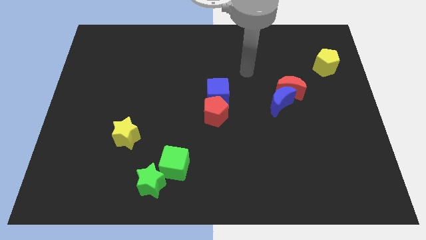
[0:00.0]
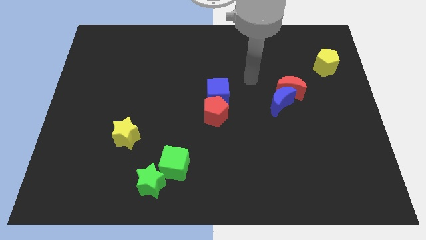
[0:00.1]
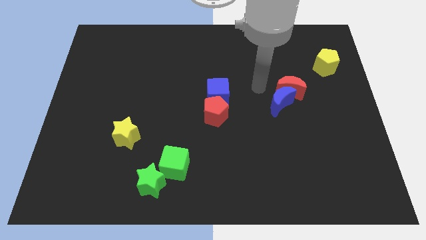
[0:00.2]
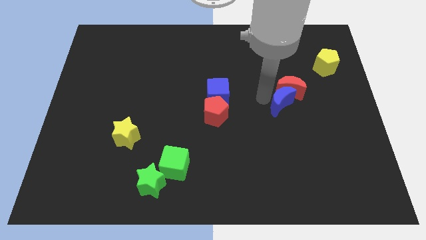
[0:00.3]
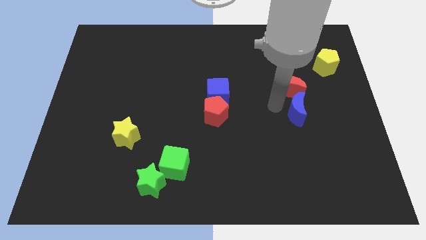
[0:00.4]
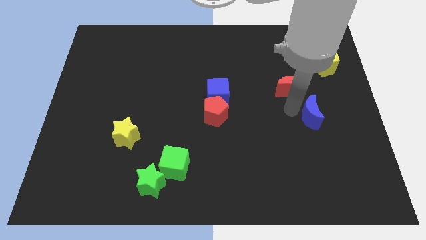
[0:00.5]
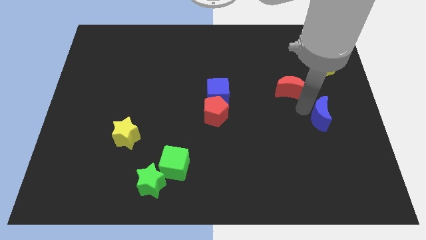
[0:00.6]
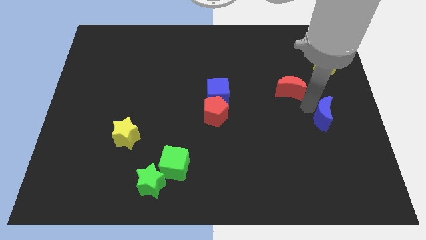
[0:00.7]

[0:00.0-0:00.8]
pull the red moon apart from the blue moon

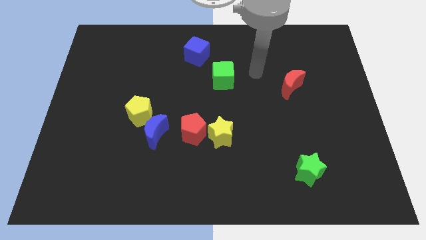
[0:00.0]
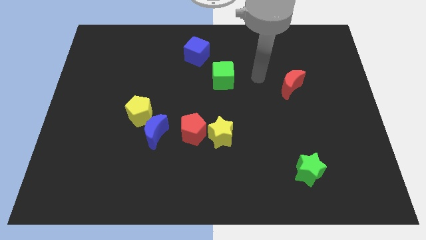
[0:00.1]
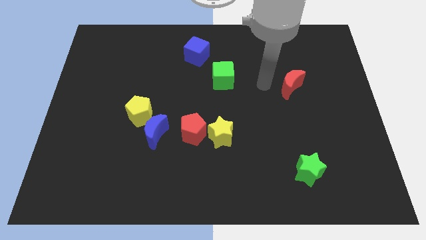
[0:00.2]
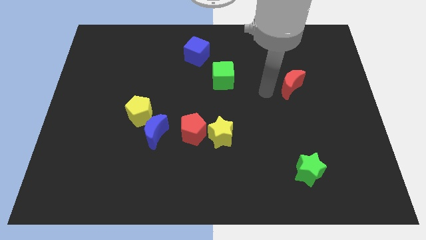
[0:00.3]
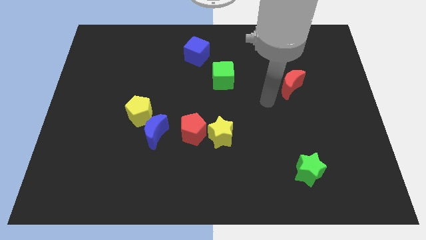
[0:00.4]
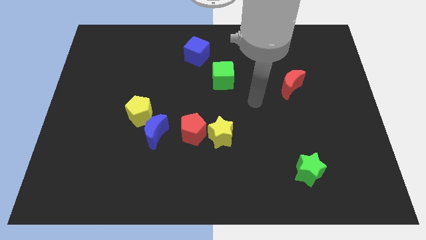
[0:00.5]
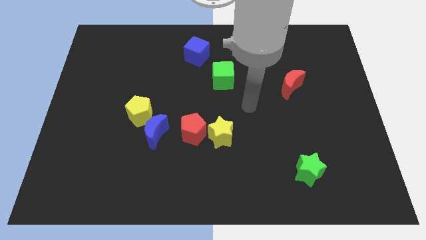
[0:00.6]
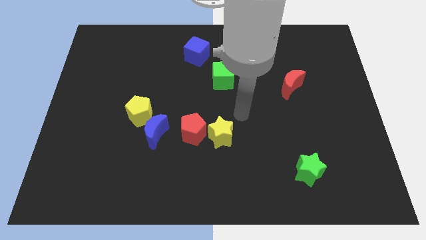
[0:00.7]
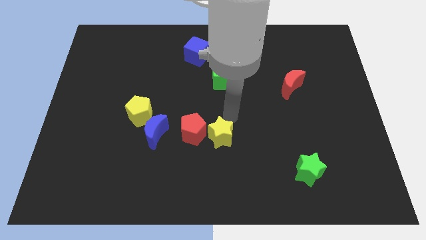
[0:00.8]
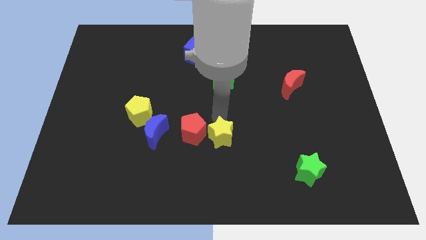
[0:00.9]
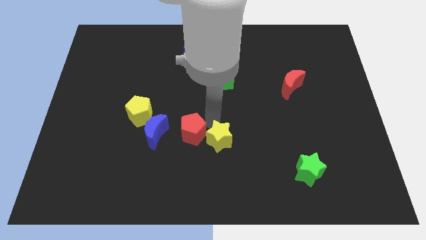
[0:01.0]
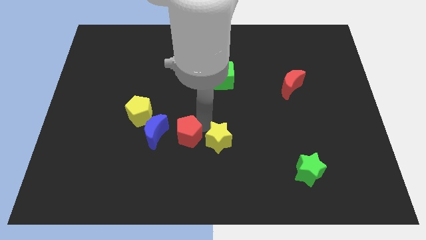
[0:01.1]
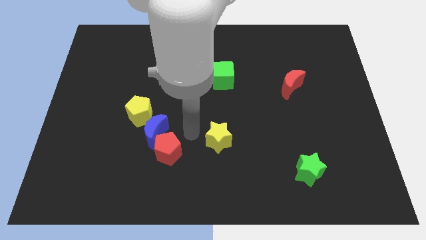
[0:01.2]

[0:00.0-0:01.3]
separate the yellow star from the red pentagon

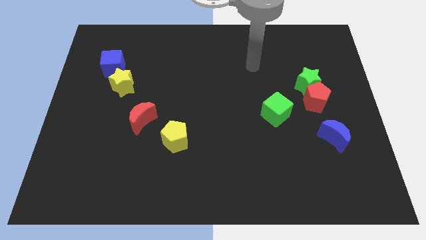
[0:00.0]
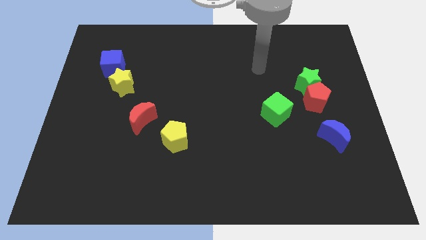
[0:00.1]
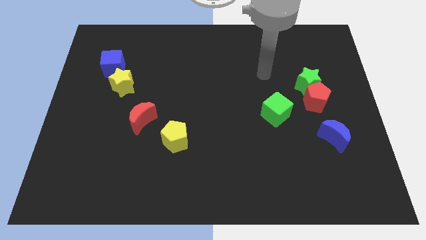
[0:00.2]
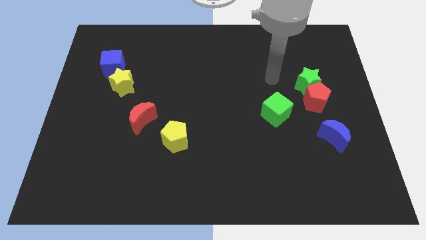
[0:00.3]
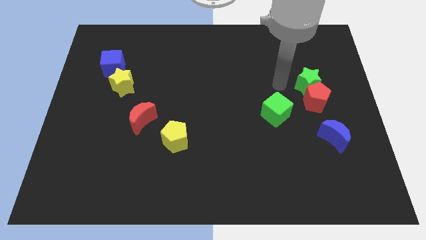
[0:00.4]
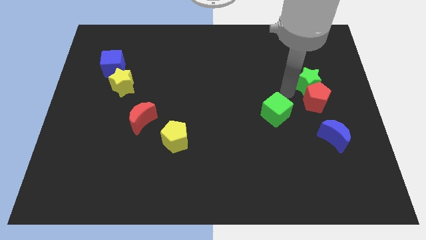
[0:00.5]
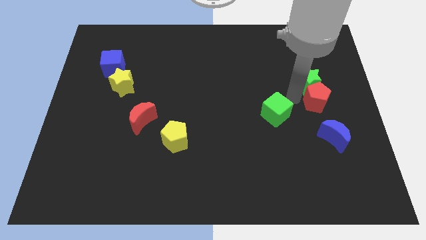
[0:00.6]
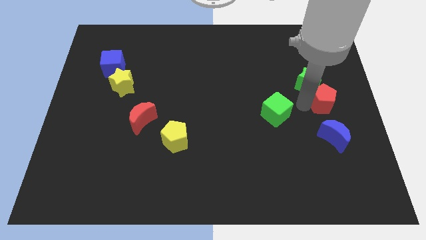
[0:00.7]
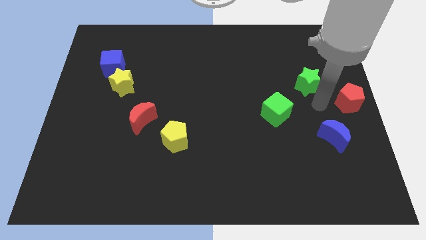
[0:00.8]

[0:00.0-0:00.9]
pull the green star apart from the red pentagon

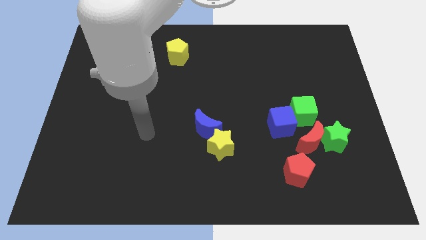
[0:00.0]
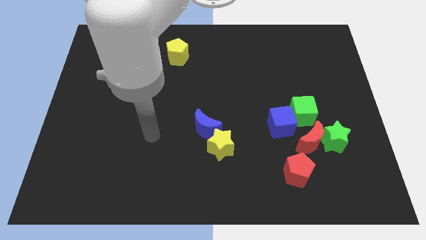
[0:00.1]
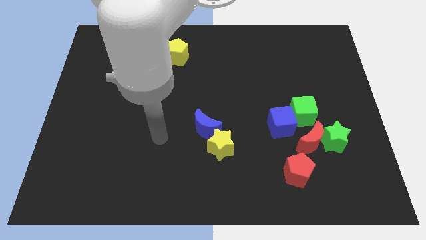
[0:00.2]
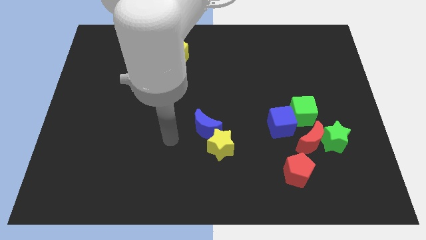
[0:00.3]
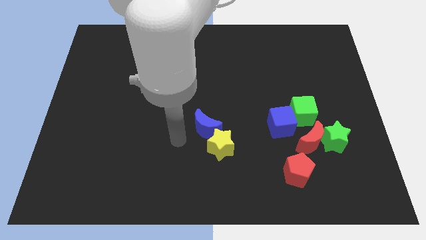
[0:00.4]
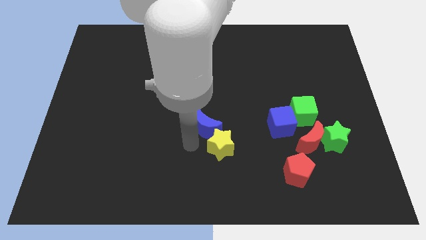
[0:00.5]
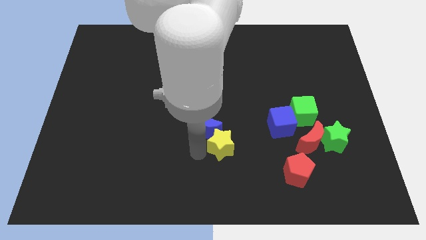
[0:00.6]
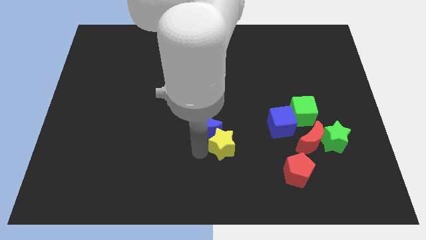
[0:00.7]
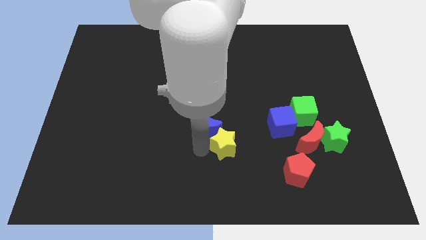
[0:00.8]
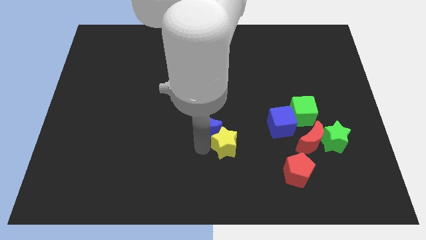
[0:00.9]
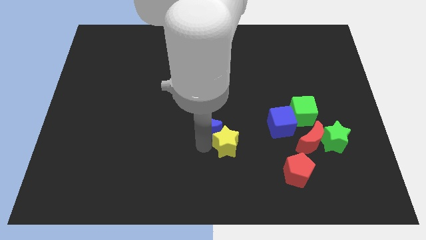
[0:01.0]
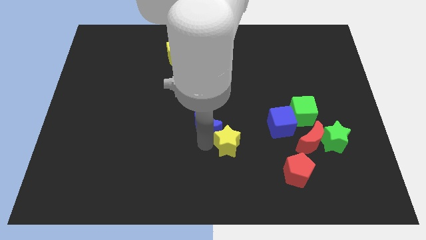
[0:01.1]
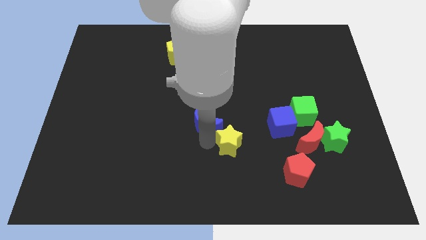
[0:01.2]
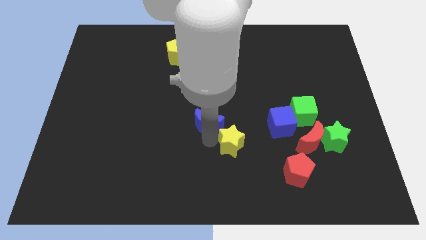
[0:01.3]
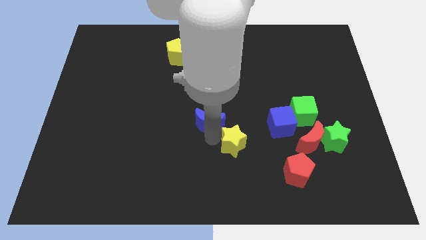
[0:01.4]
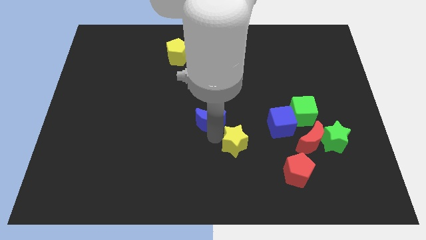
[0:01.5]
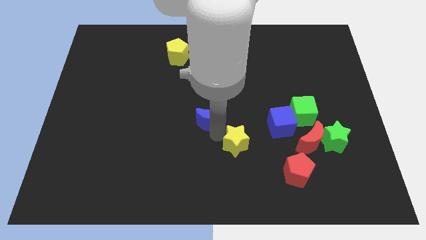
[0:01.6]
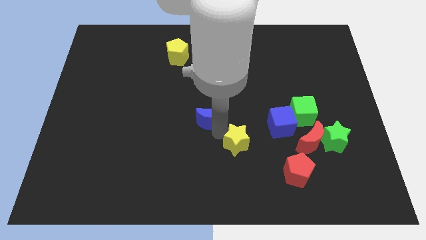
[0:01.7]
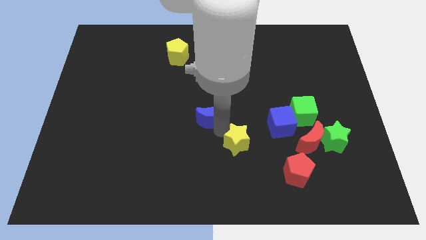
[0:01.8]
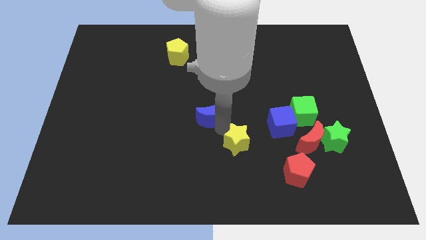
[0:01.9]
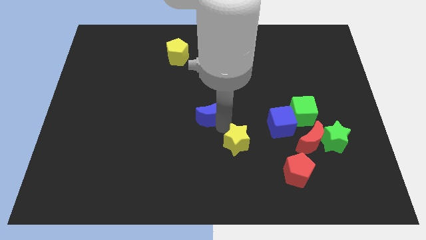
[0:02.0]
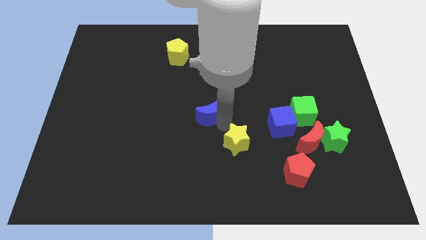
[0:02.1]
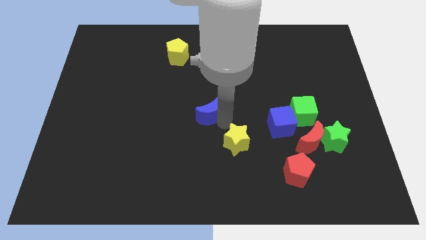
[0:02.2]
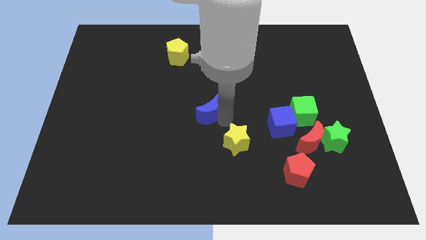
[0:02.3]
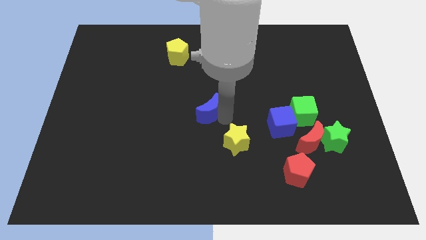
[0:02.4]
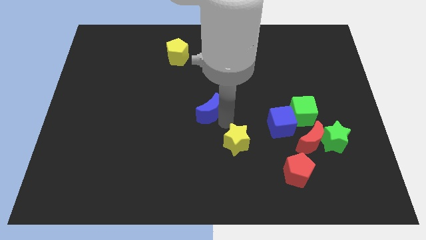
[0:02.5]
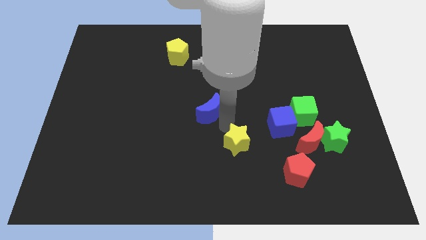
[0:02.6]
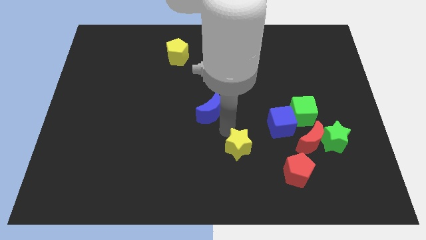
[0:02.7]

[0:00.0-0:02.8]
separate the blue moon from the yellow star

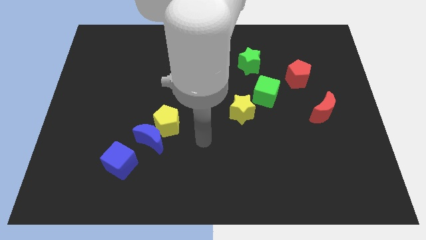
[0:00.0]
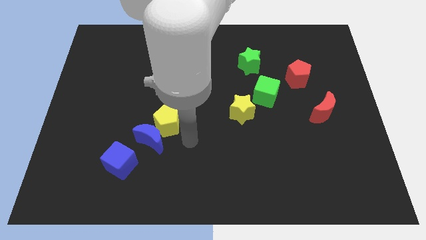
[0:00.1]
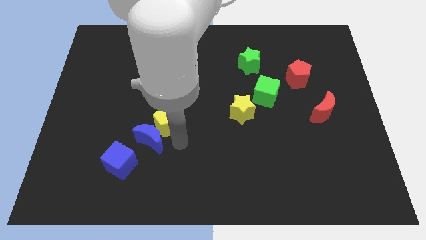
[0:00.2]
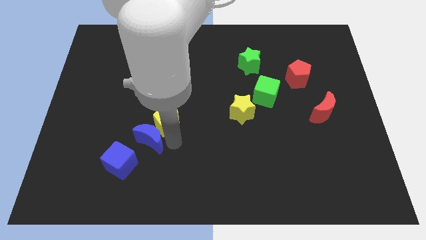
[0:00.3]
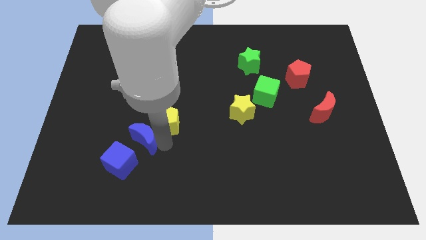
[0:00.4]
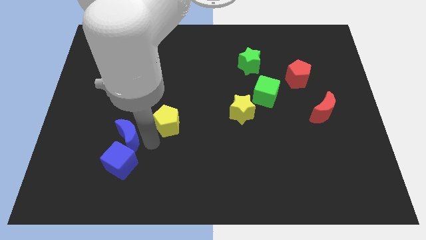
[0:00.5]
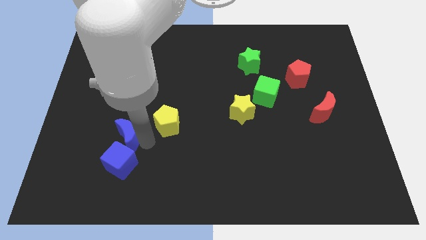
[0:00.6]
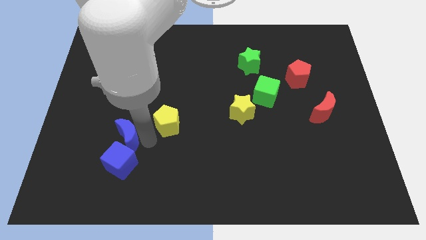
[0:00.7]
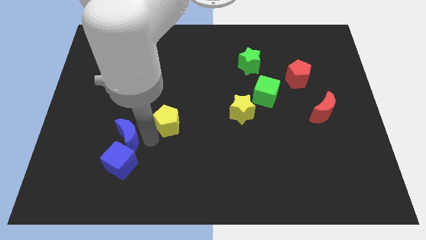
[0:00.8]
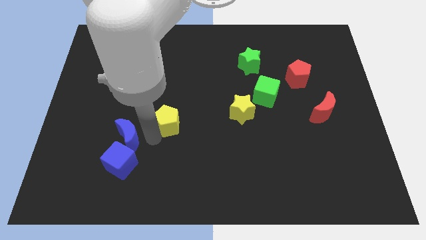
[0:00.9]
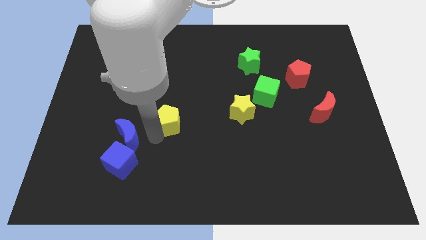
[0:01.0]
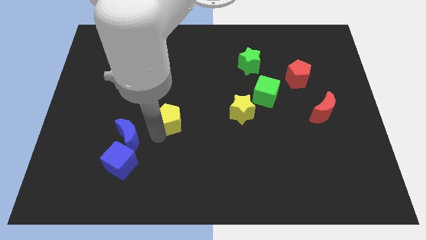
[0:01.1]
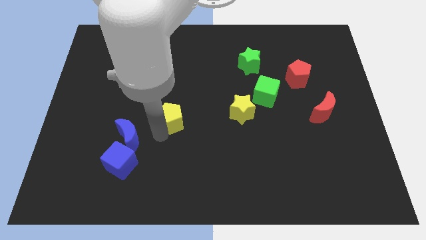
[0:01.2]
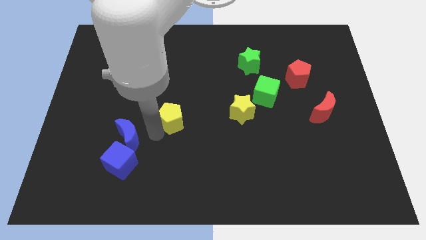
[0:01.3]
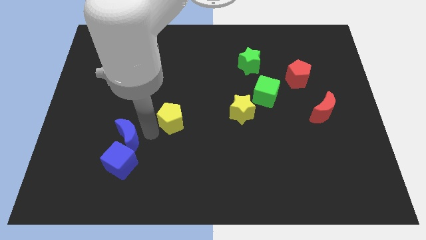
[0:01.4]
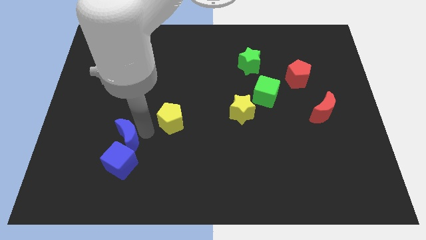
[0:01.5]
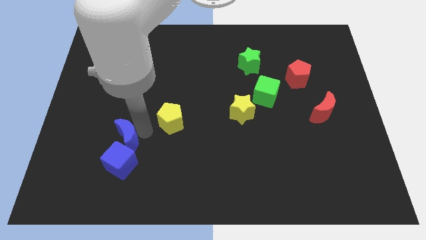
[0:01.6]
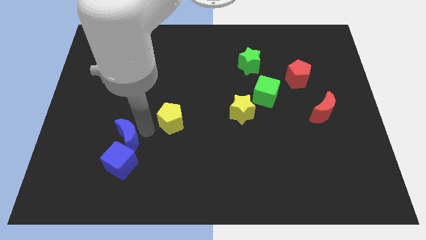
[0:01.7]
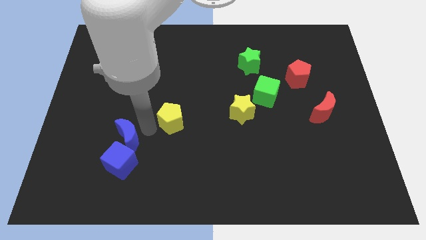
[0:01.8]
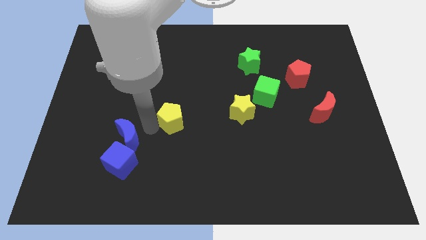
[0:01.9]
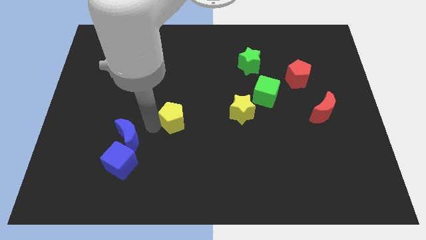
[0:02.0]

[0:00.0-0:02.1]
move the yellow pentagon away from the blue moon

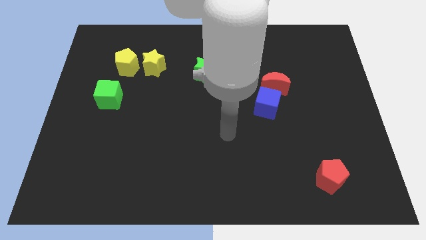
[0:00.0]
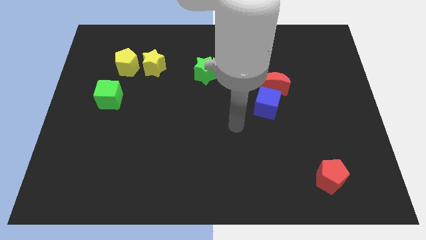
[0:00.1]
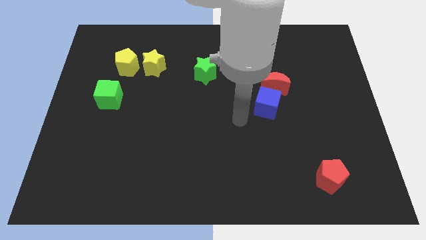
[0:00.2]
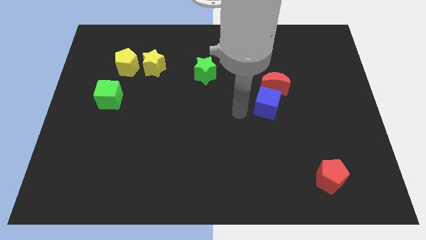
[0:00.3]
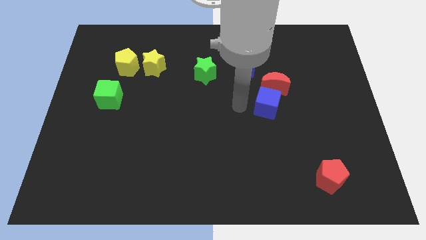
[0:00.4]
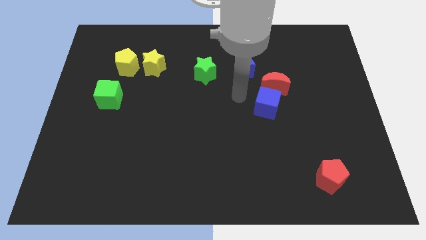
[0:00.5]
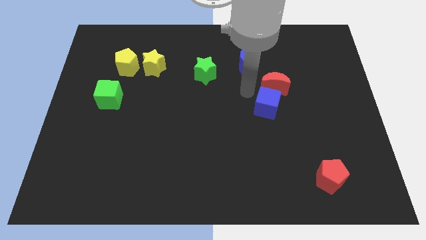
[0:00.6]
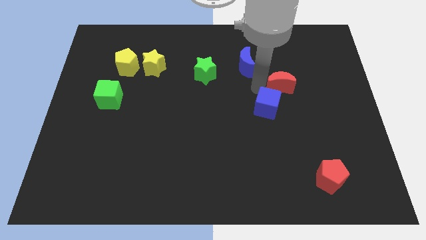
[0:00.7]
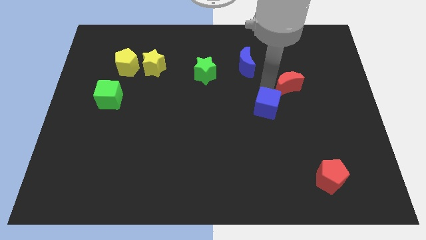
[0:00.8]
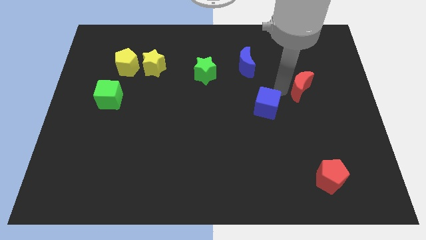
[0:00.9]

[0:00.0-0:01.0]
pull the blue cube apart from the red moon

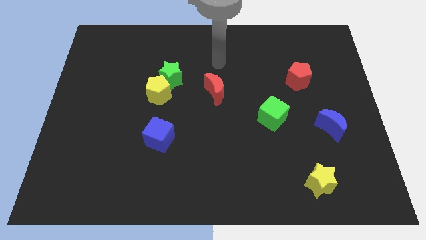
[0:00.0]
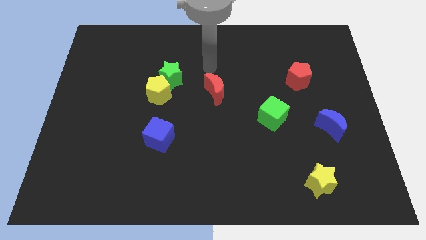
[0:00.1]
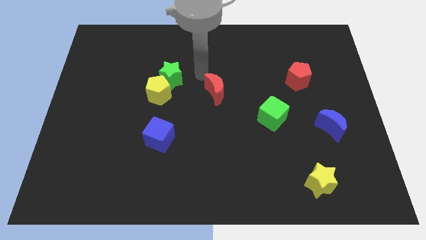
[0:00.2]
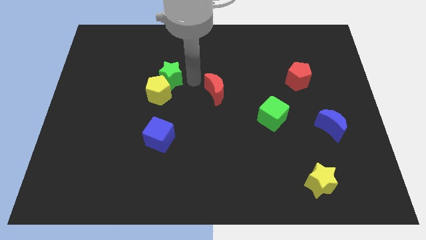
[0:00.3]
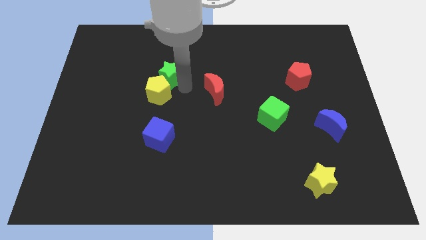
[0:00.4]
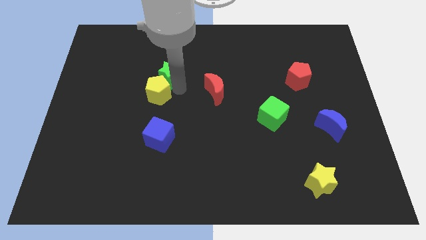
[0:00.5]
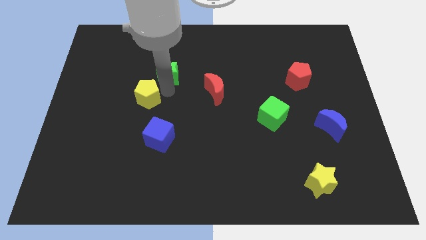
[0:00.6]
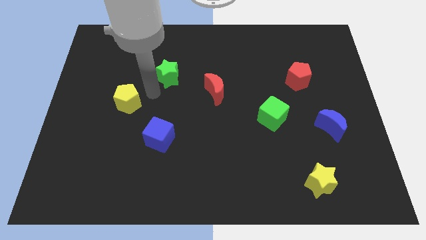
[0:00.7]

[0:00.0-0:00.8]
pull the green star apart from the yellow pentagon
